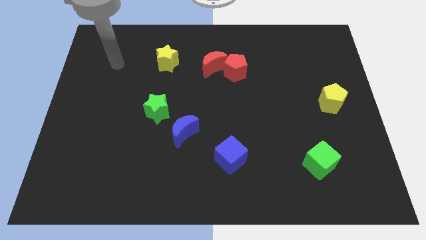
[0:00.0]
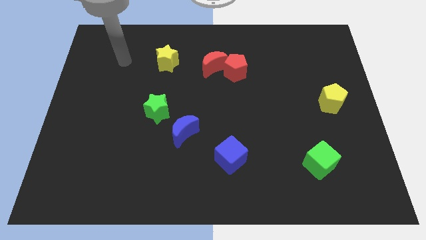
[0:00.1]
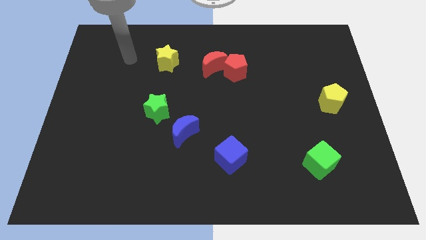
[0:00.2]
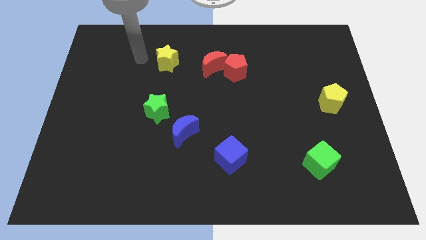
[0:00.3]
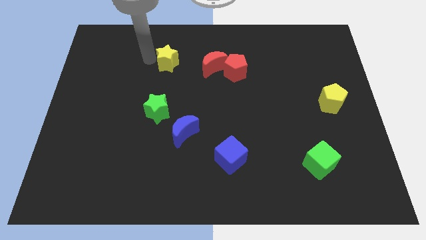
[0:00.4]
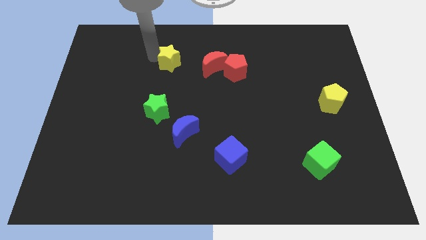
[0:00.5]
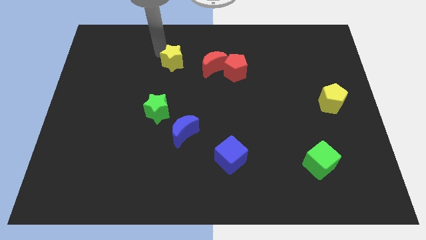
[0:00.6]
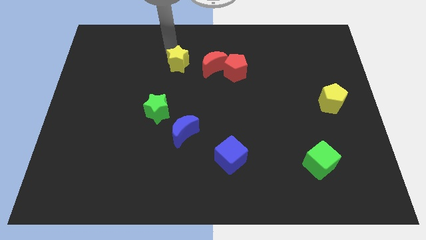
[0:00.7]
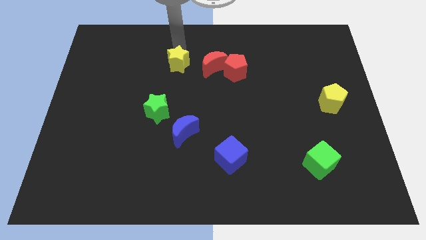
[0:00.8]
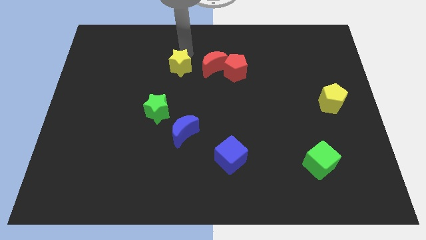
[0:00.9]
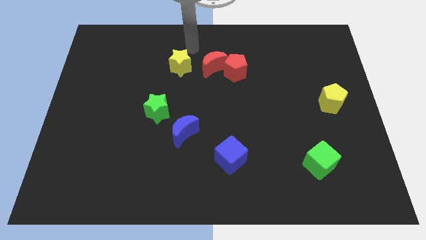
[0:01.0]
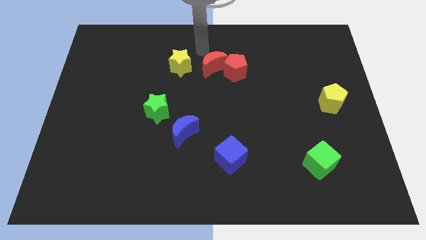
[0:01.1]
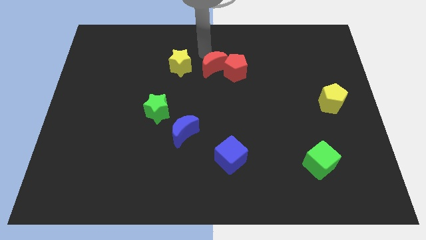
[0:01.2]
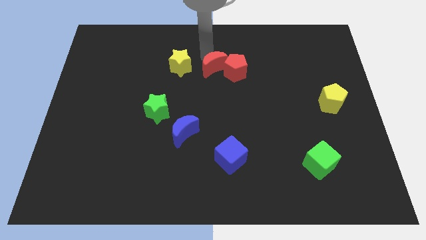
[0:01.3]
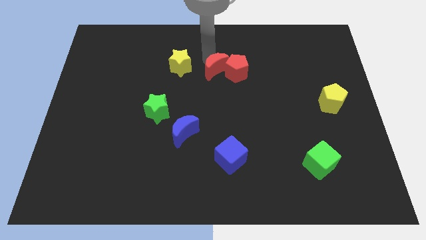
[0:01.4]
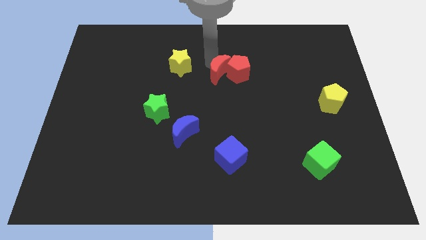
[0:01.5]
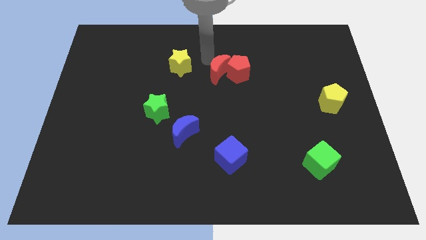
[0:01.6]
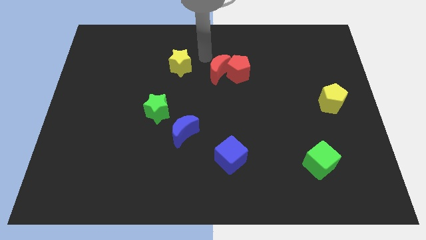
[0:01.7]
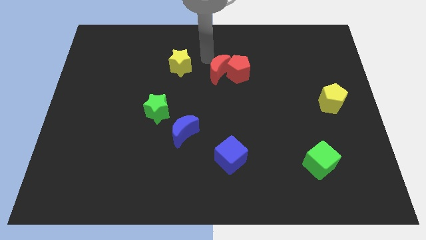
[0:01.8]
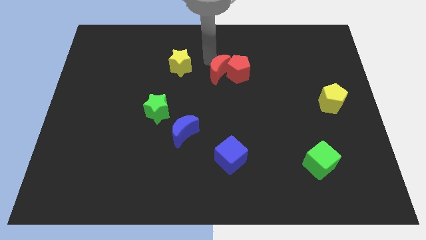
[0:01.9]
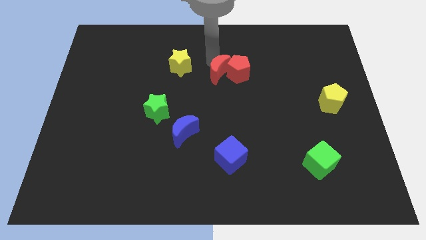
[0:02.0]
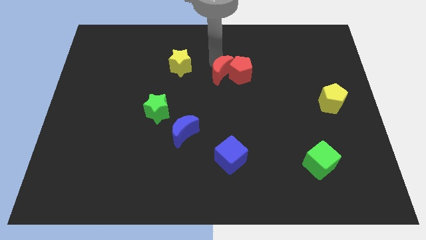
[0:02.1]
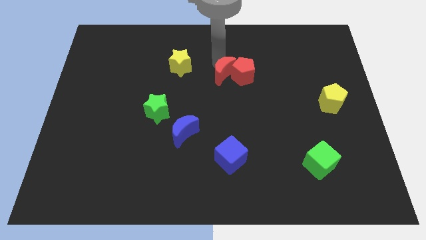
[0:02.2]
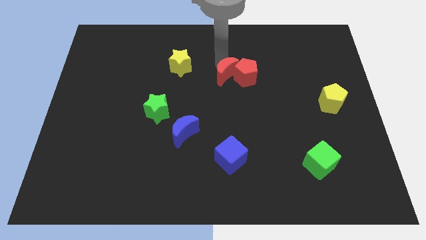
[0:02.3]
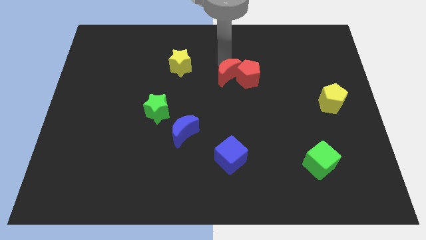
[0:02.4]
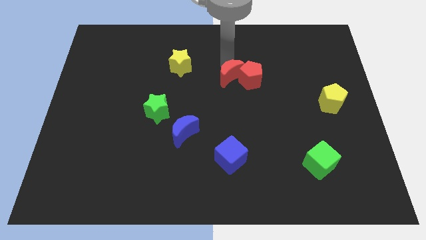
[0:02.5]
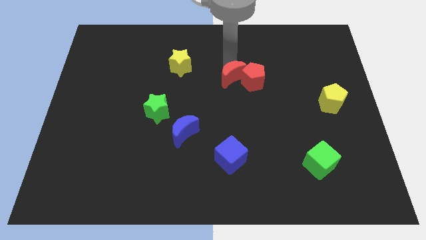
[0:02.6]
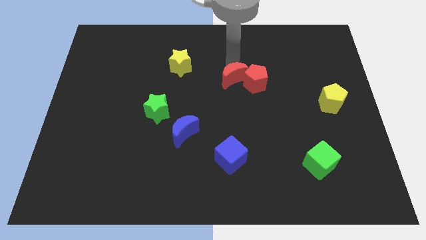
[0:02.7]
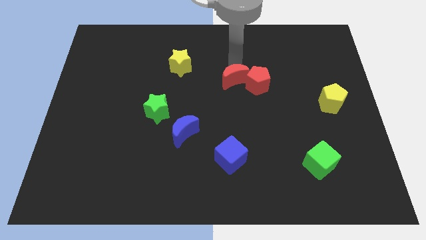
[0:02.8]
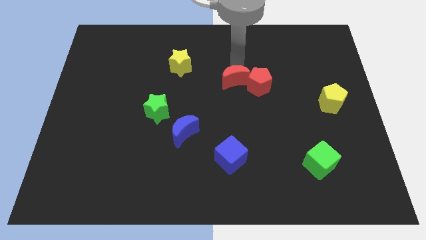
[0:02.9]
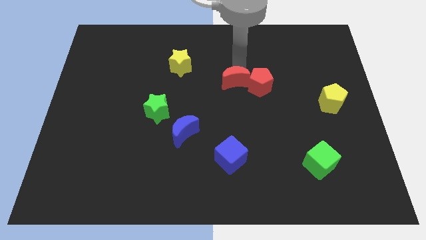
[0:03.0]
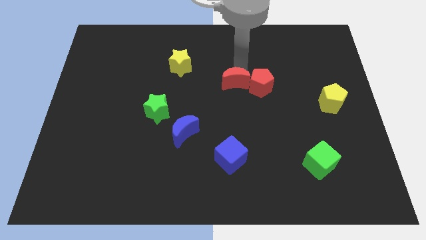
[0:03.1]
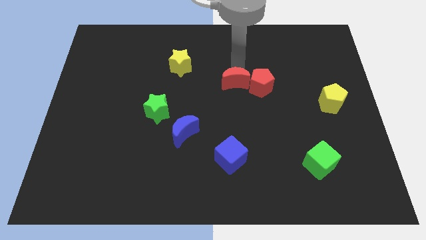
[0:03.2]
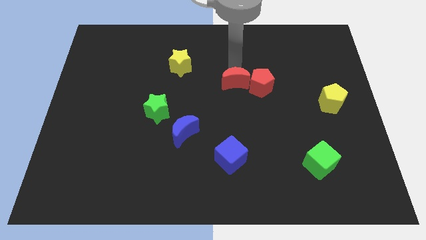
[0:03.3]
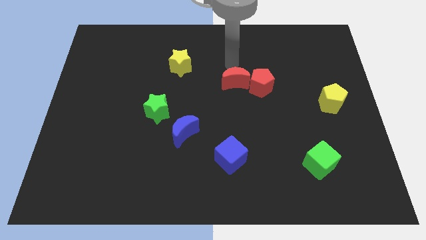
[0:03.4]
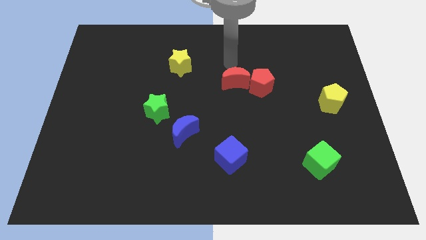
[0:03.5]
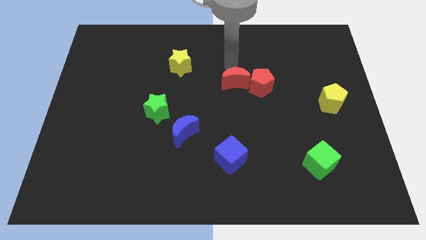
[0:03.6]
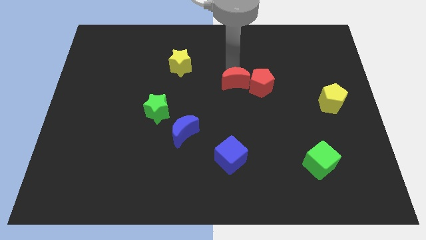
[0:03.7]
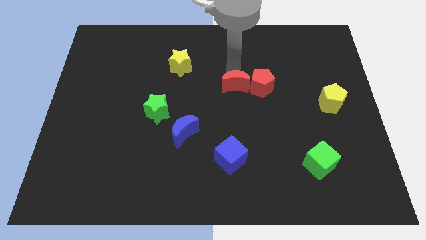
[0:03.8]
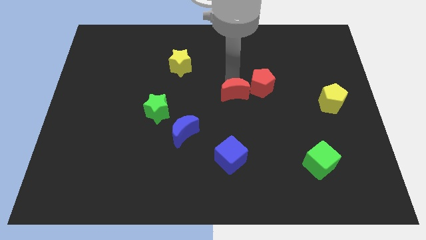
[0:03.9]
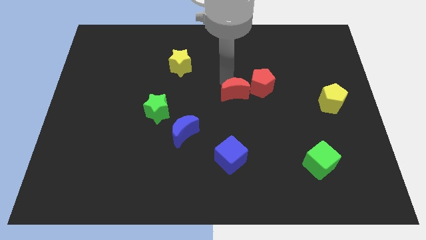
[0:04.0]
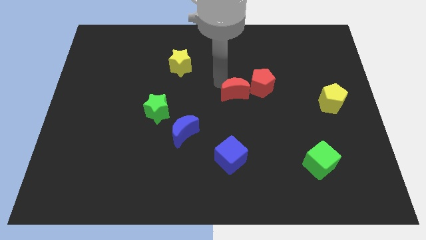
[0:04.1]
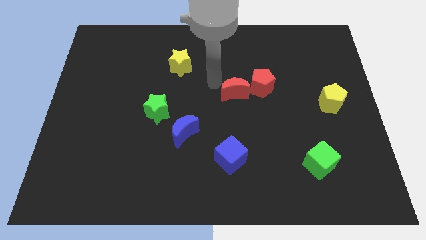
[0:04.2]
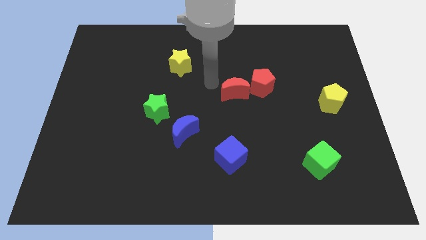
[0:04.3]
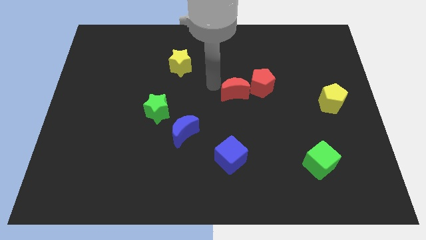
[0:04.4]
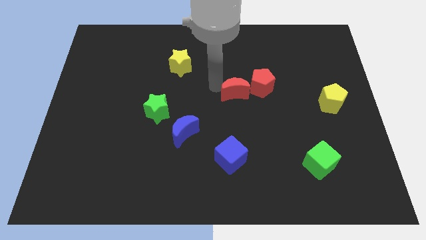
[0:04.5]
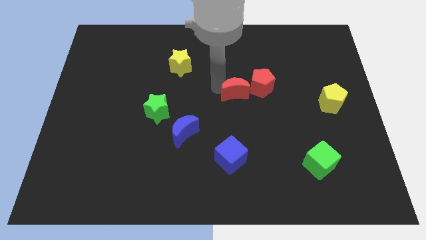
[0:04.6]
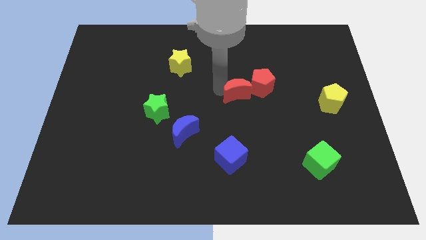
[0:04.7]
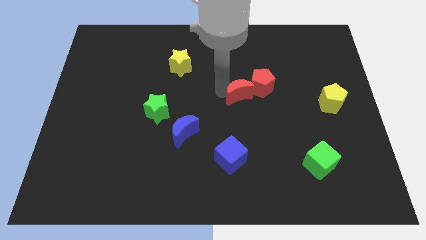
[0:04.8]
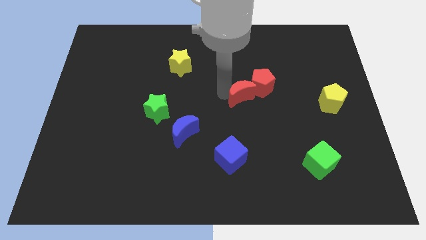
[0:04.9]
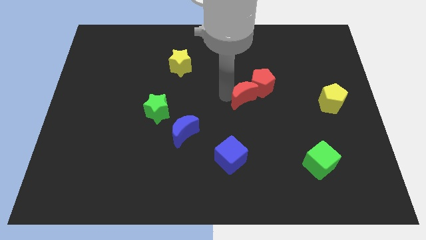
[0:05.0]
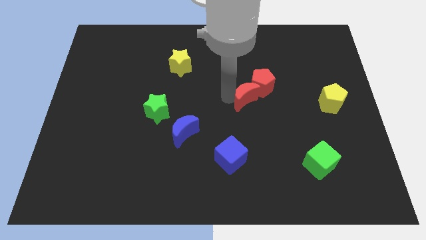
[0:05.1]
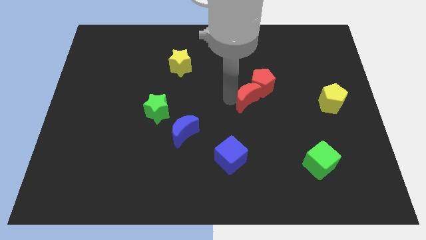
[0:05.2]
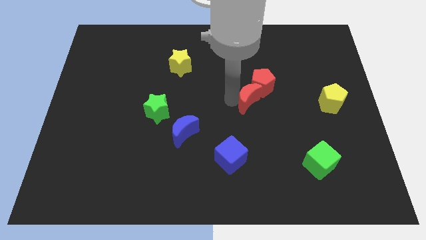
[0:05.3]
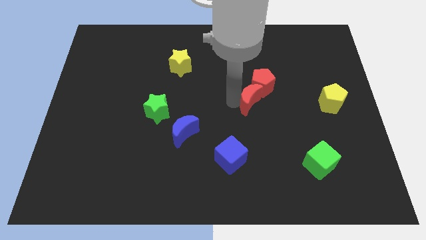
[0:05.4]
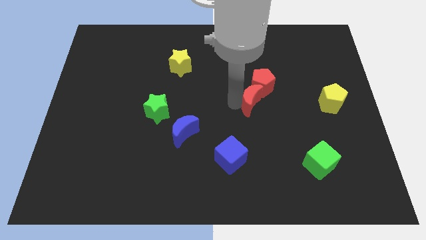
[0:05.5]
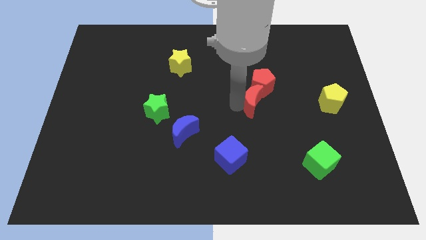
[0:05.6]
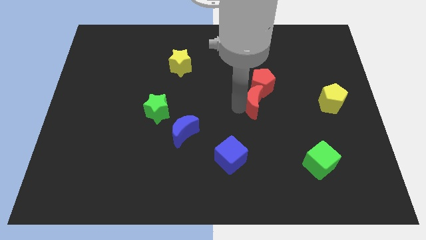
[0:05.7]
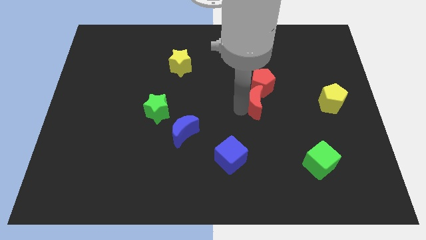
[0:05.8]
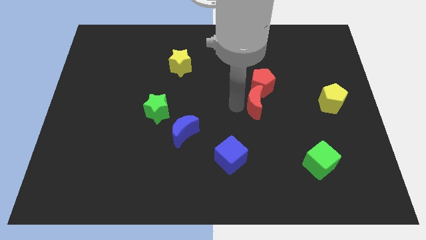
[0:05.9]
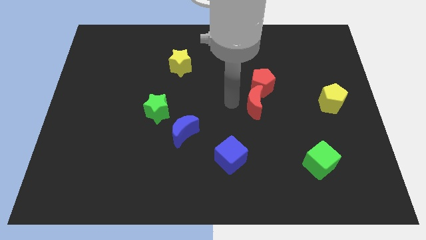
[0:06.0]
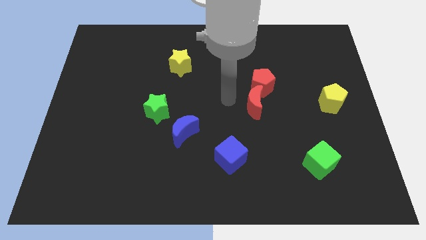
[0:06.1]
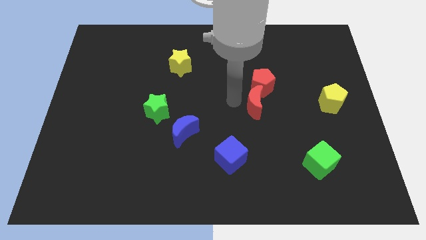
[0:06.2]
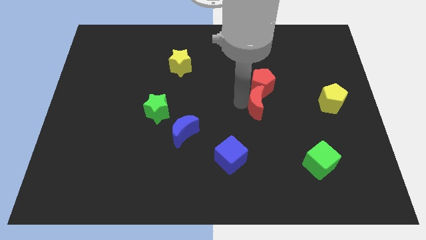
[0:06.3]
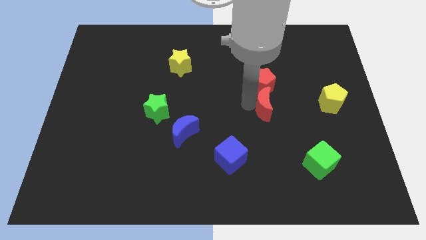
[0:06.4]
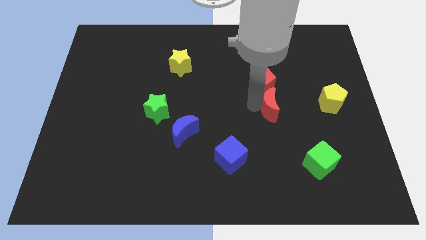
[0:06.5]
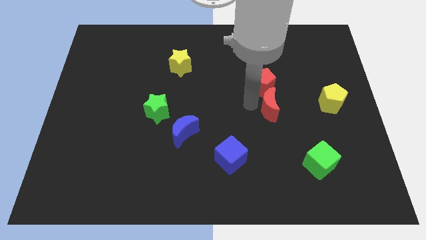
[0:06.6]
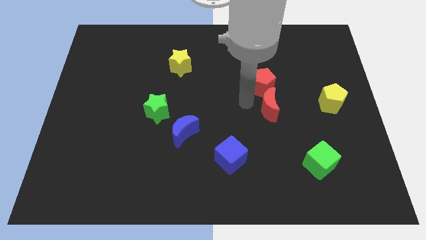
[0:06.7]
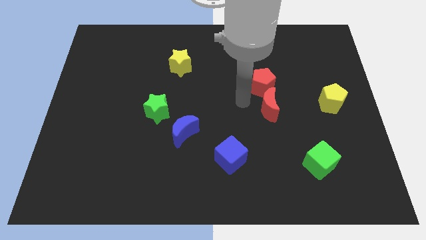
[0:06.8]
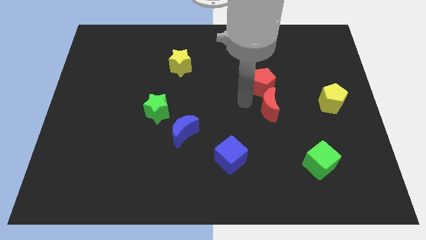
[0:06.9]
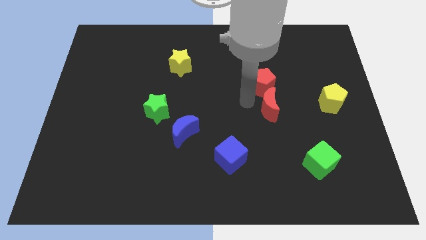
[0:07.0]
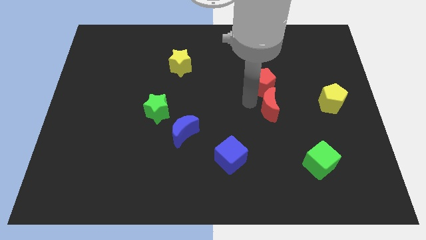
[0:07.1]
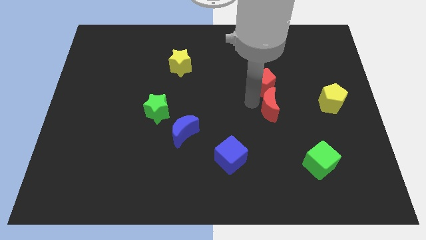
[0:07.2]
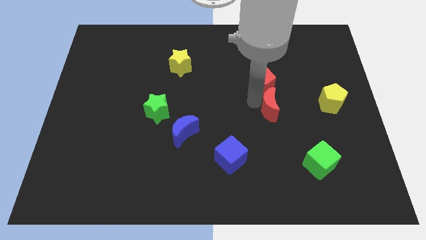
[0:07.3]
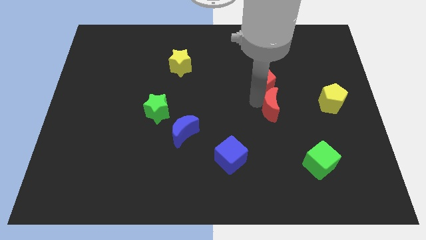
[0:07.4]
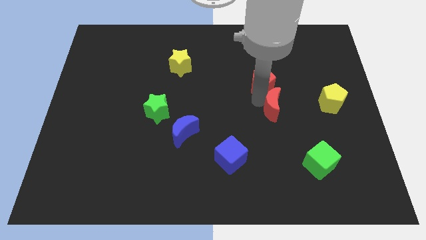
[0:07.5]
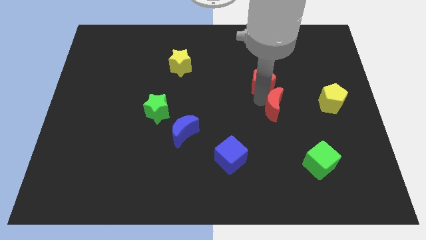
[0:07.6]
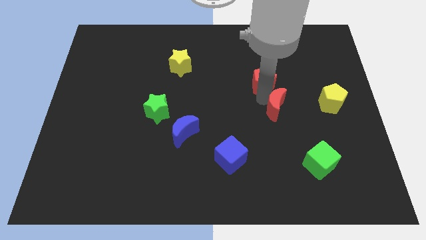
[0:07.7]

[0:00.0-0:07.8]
slide the red moon down and right diagonally
